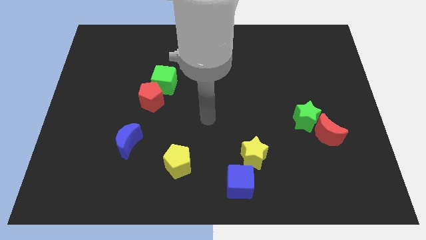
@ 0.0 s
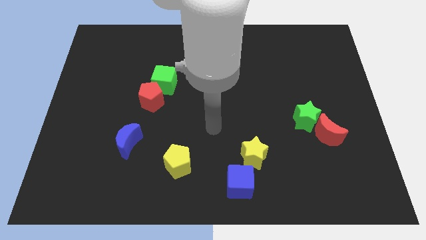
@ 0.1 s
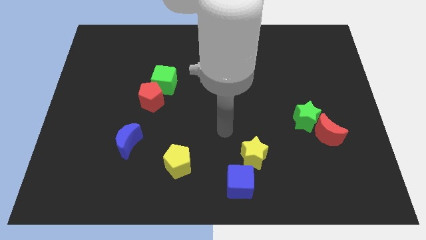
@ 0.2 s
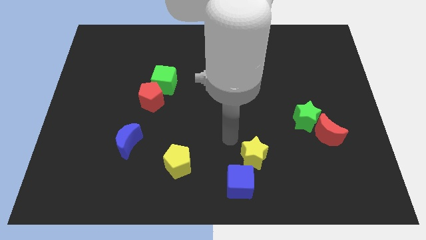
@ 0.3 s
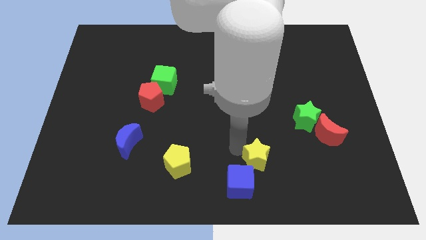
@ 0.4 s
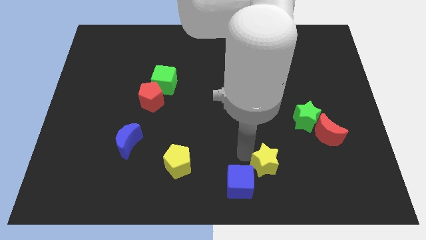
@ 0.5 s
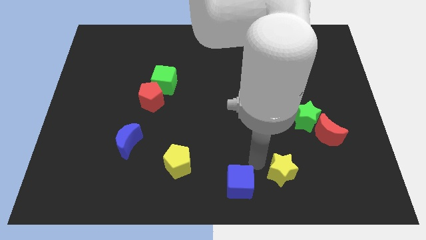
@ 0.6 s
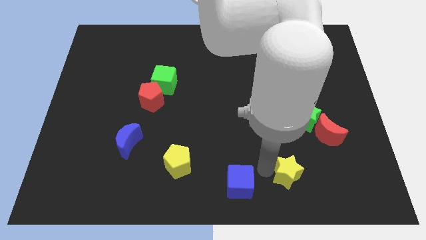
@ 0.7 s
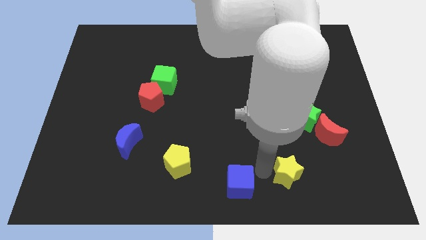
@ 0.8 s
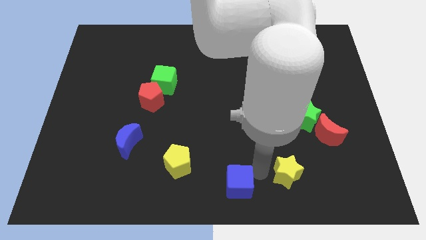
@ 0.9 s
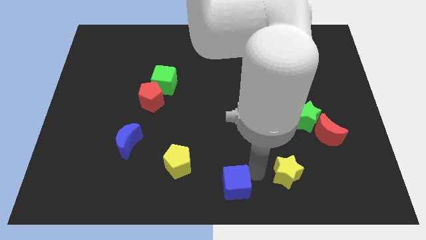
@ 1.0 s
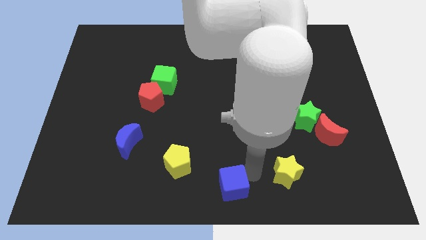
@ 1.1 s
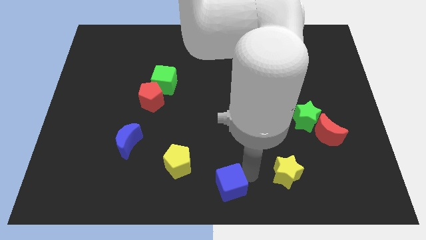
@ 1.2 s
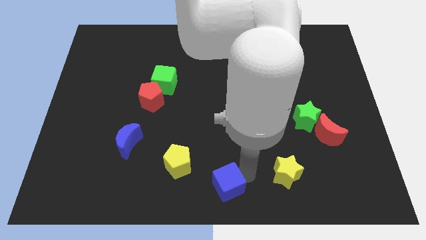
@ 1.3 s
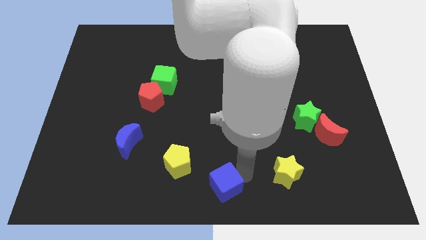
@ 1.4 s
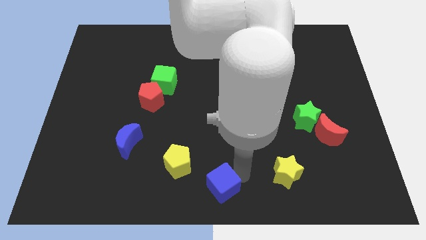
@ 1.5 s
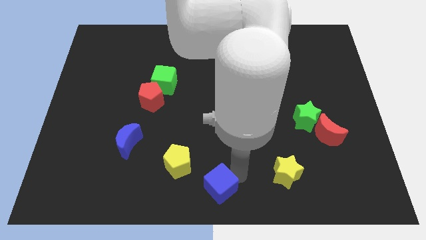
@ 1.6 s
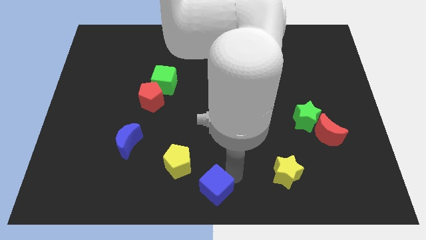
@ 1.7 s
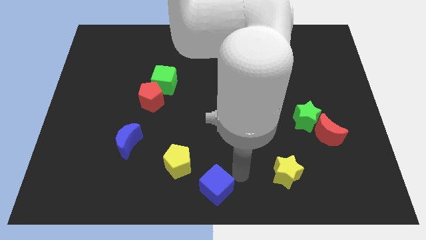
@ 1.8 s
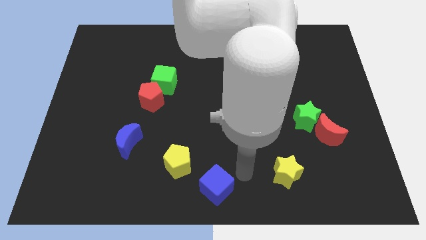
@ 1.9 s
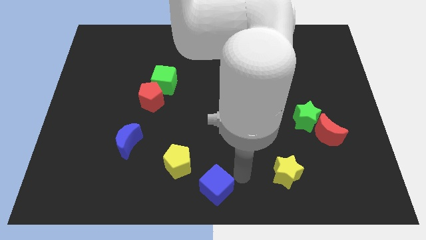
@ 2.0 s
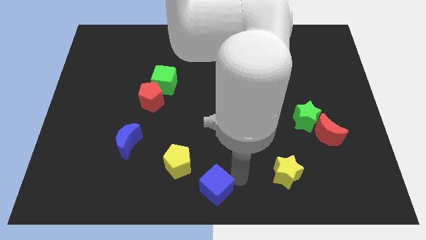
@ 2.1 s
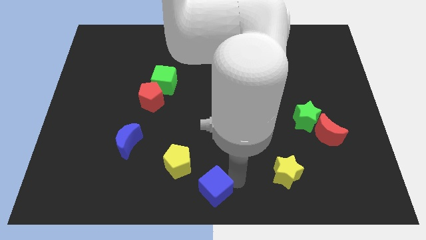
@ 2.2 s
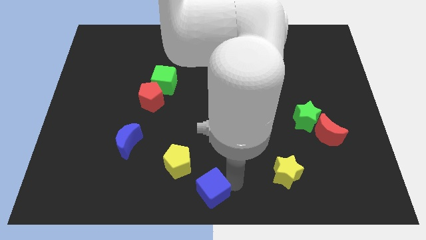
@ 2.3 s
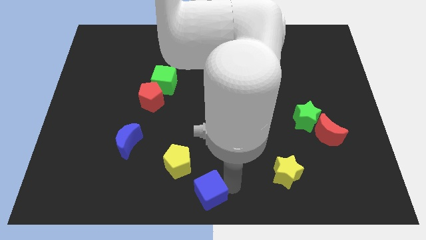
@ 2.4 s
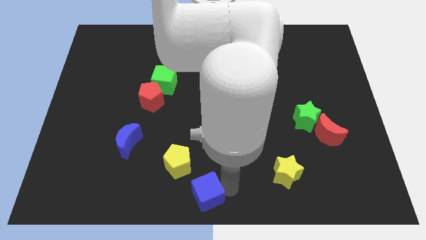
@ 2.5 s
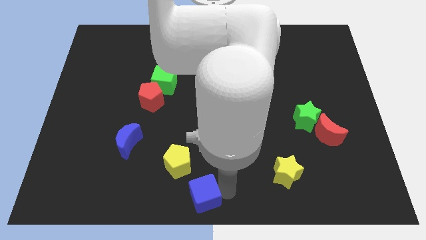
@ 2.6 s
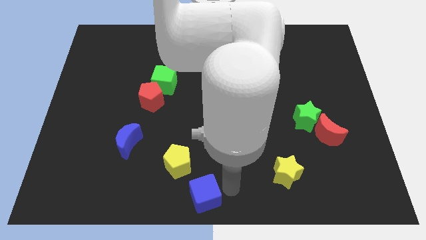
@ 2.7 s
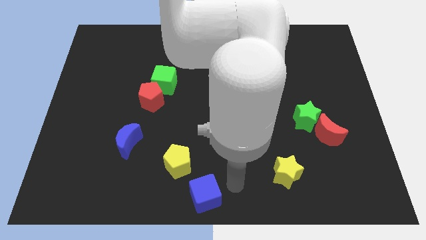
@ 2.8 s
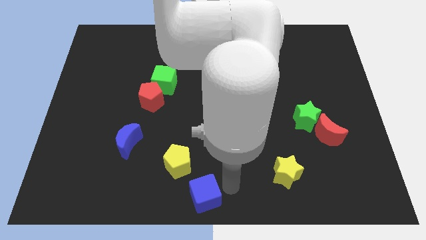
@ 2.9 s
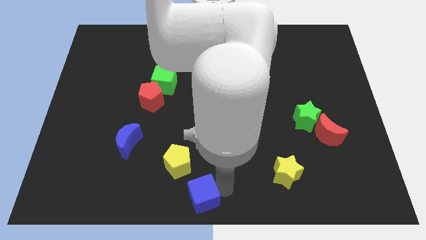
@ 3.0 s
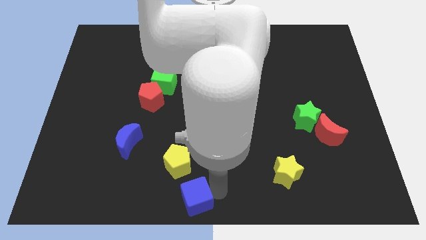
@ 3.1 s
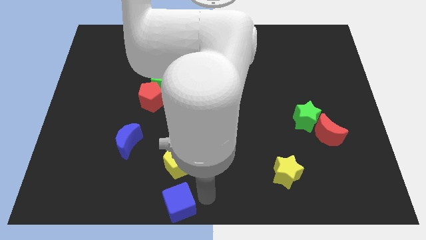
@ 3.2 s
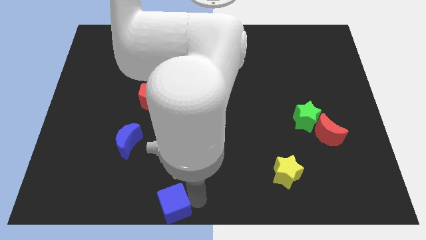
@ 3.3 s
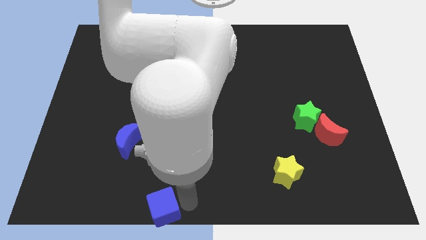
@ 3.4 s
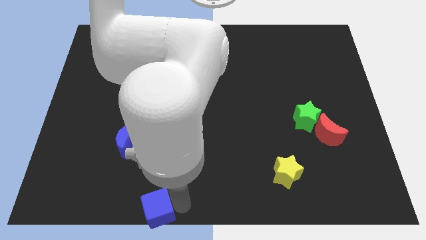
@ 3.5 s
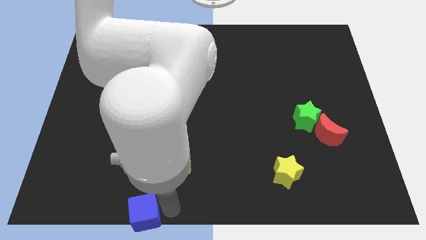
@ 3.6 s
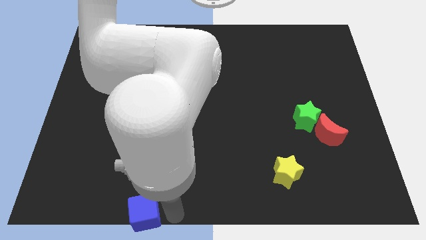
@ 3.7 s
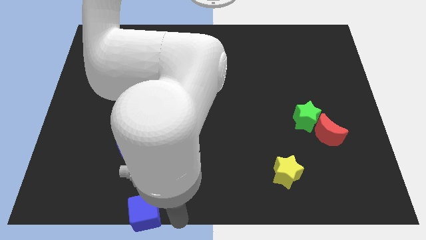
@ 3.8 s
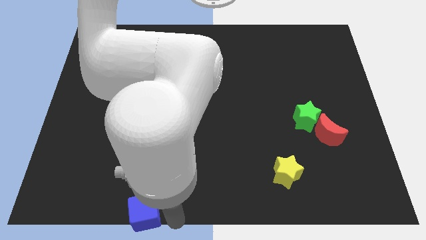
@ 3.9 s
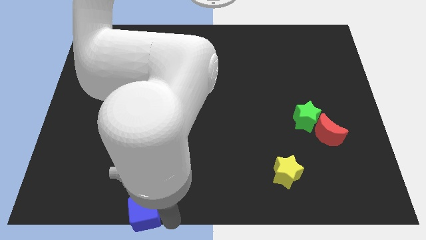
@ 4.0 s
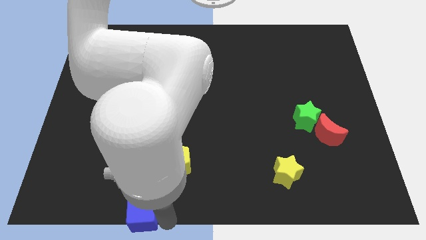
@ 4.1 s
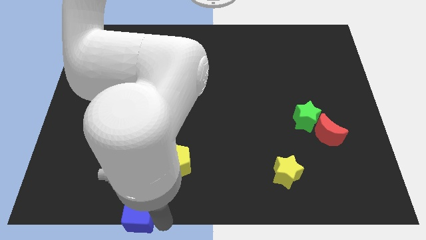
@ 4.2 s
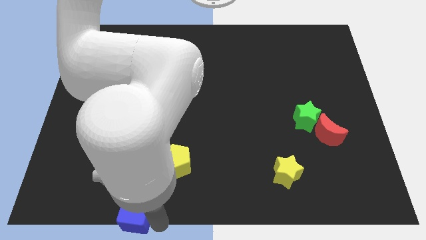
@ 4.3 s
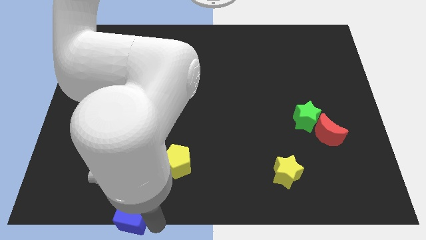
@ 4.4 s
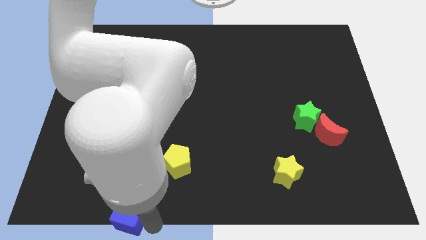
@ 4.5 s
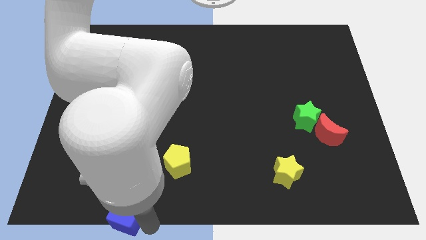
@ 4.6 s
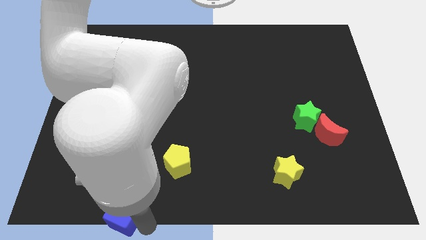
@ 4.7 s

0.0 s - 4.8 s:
slide the blue cube left

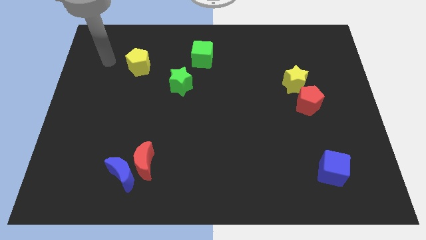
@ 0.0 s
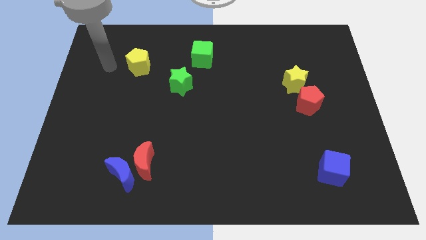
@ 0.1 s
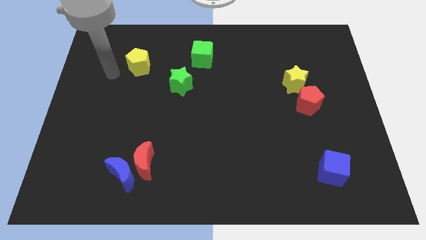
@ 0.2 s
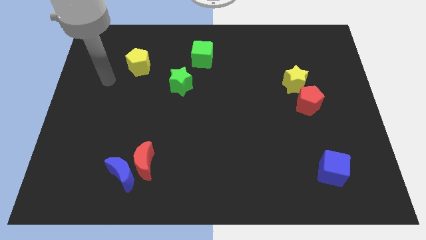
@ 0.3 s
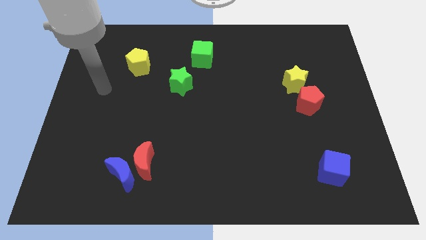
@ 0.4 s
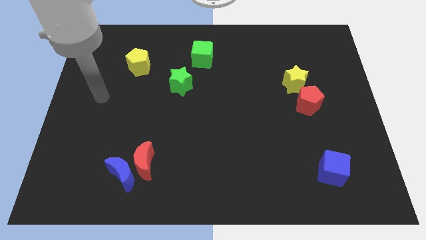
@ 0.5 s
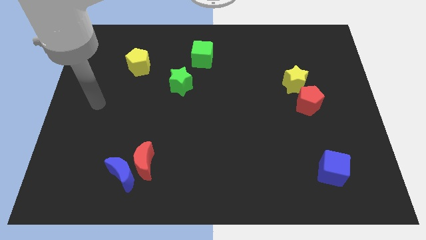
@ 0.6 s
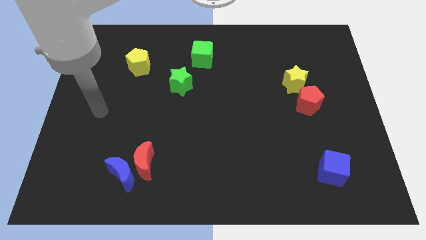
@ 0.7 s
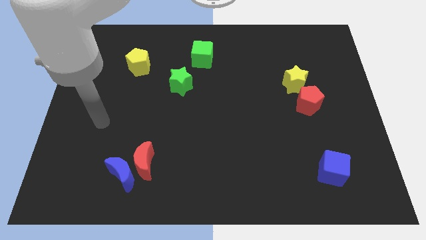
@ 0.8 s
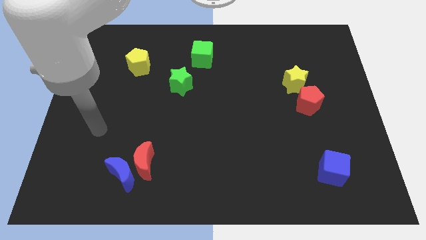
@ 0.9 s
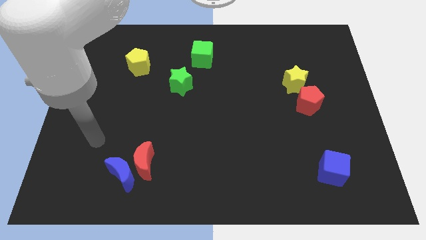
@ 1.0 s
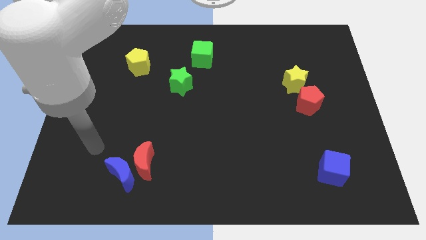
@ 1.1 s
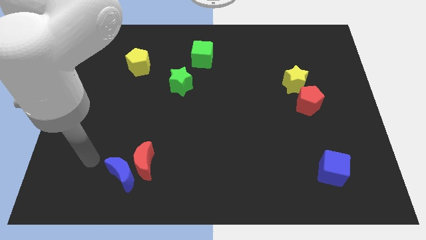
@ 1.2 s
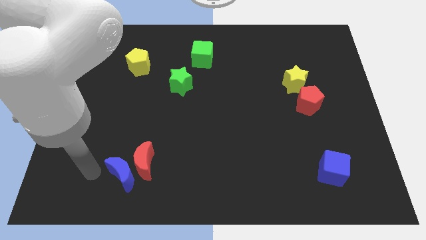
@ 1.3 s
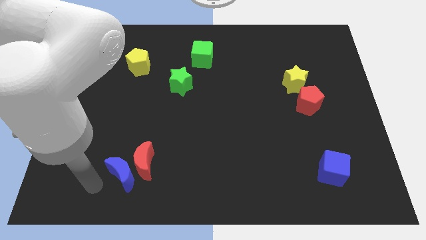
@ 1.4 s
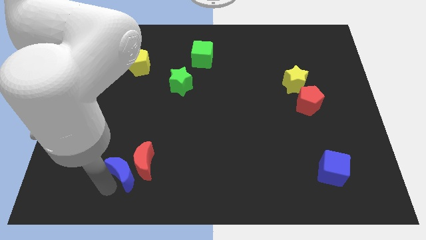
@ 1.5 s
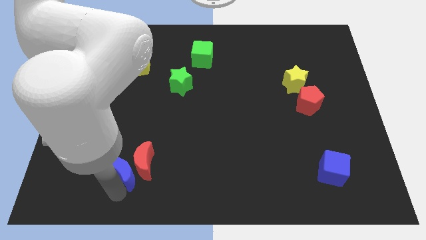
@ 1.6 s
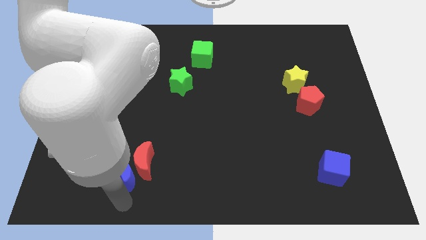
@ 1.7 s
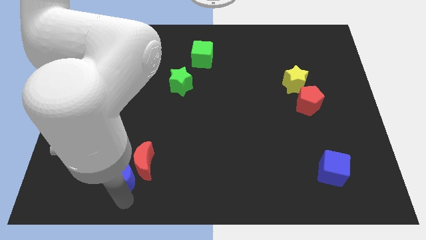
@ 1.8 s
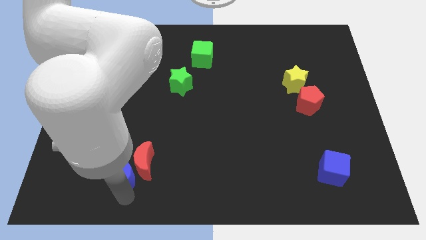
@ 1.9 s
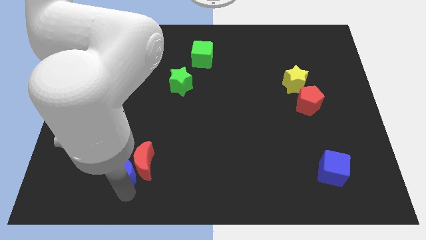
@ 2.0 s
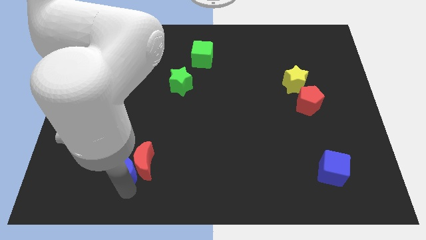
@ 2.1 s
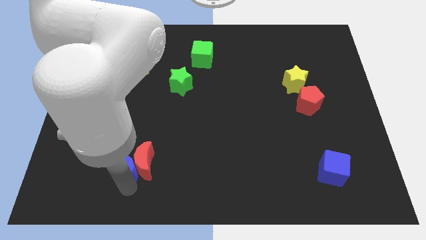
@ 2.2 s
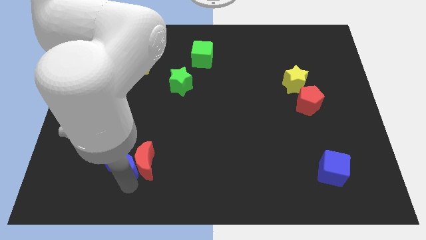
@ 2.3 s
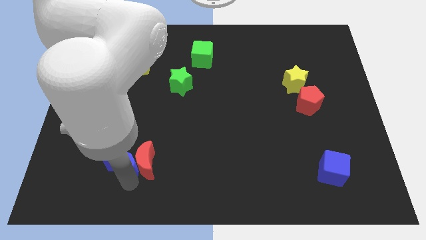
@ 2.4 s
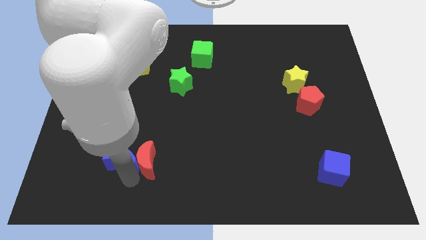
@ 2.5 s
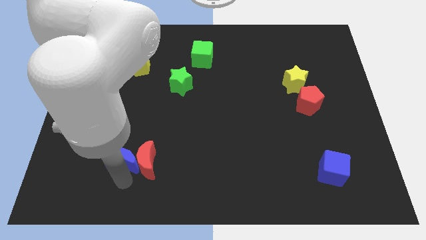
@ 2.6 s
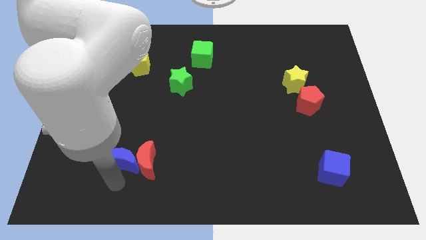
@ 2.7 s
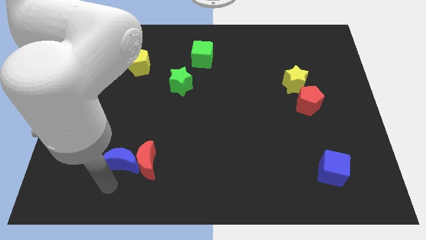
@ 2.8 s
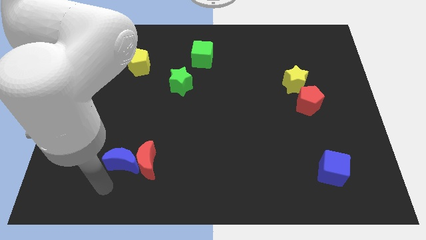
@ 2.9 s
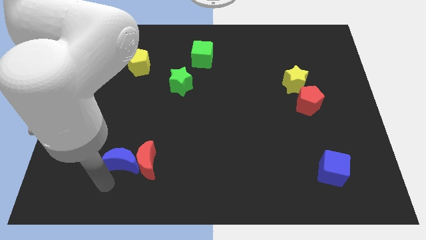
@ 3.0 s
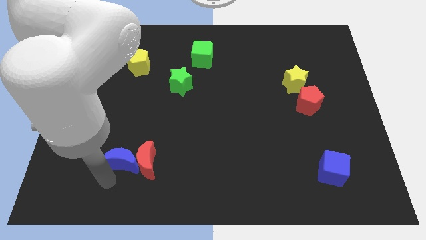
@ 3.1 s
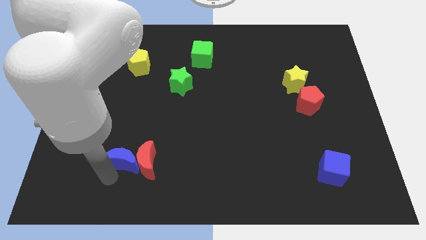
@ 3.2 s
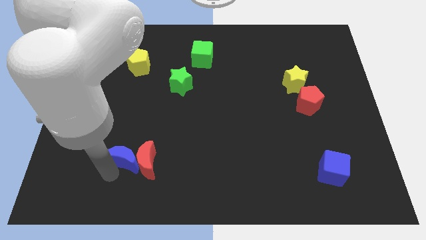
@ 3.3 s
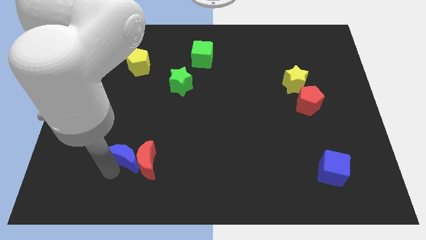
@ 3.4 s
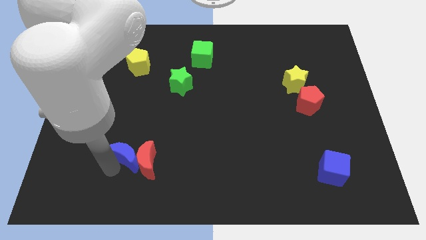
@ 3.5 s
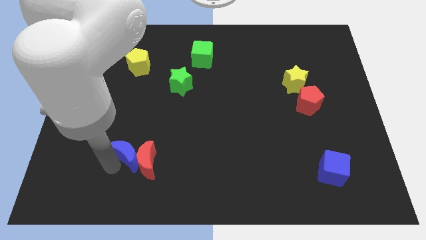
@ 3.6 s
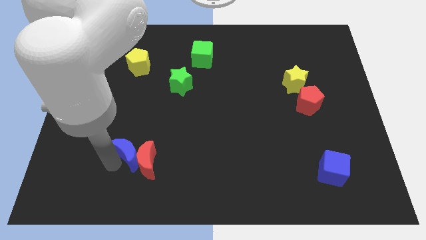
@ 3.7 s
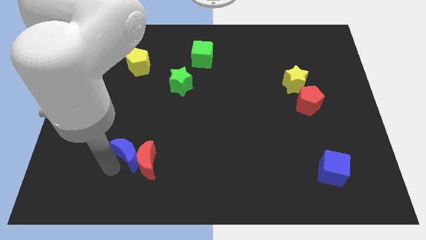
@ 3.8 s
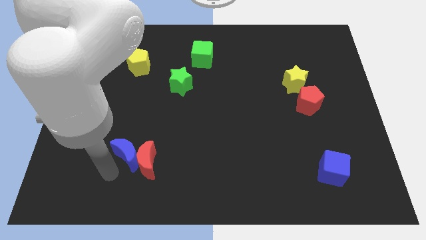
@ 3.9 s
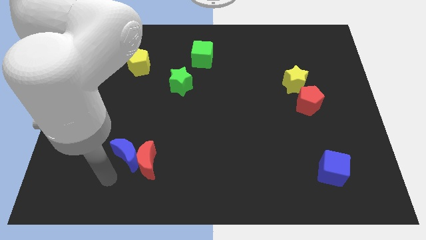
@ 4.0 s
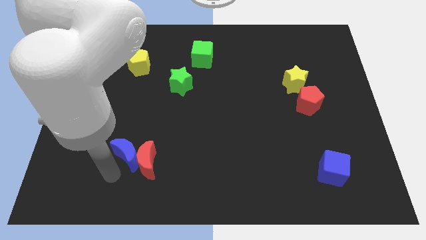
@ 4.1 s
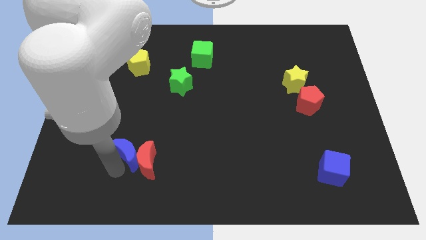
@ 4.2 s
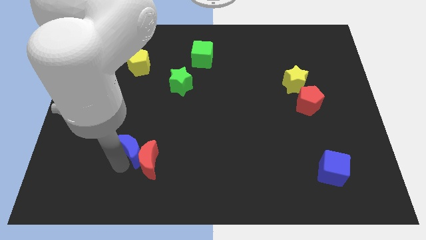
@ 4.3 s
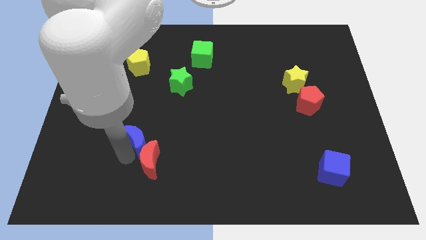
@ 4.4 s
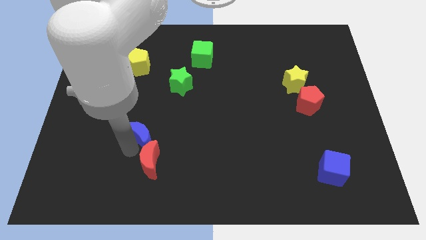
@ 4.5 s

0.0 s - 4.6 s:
slide the blue moon upwards and to the right diagonally slightly
